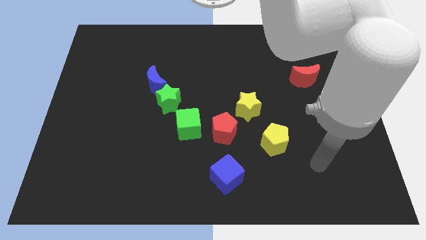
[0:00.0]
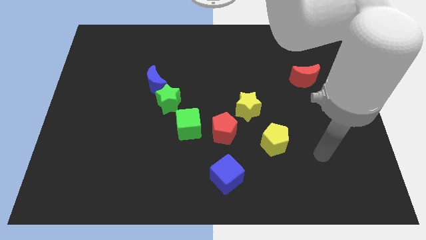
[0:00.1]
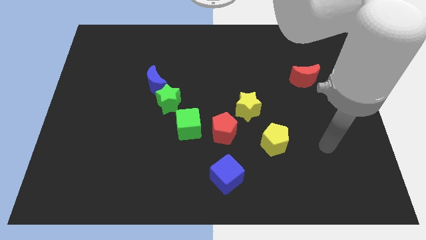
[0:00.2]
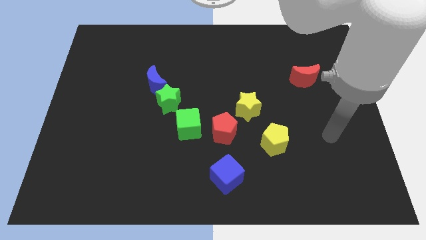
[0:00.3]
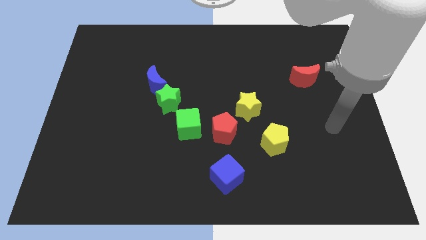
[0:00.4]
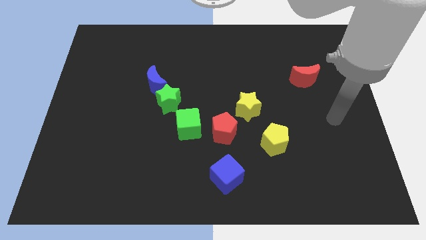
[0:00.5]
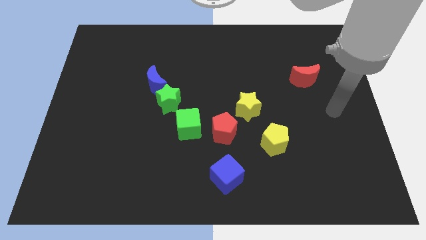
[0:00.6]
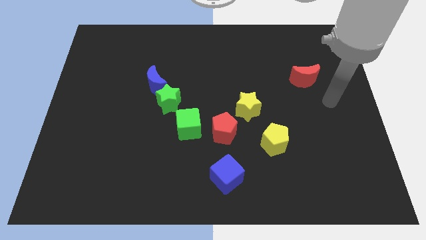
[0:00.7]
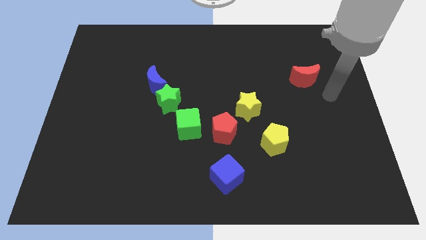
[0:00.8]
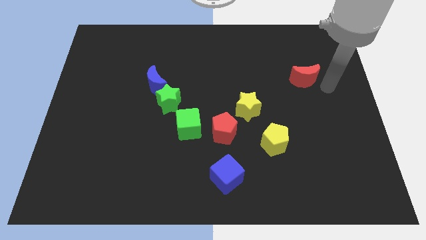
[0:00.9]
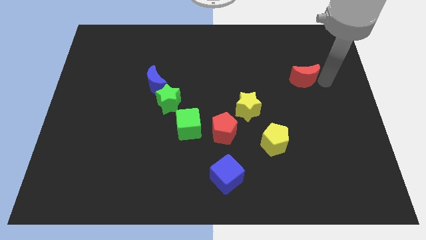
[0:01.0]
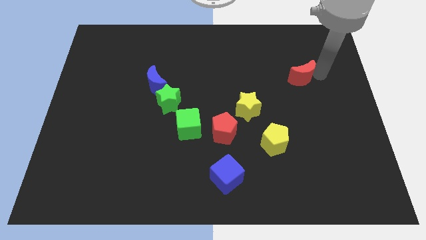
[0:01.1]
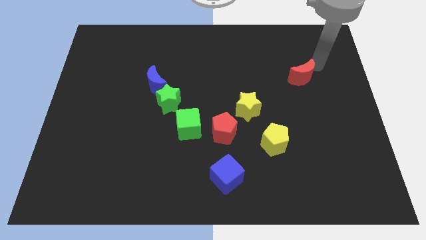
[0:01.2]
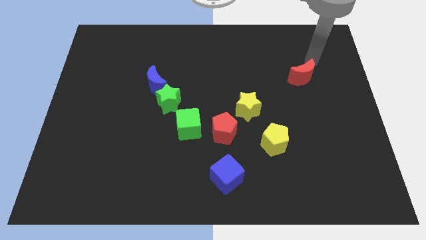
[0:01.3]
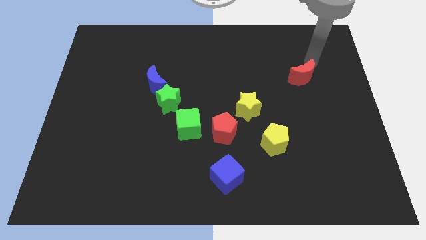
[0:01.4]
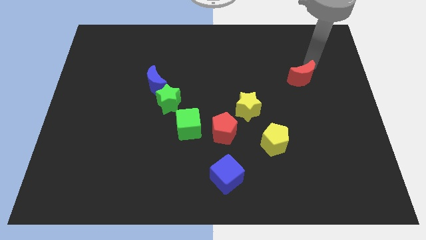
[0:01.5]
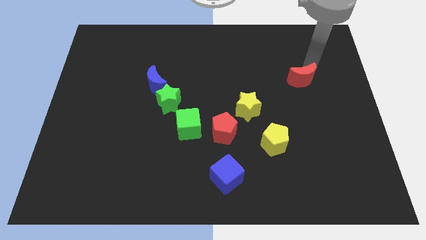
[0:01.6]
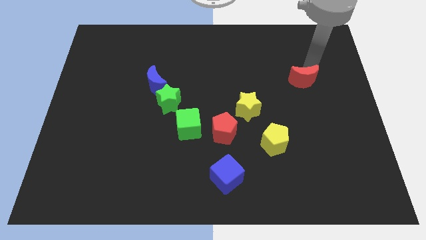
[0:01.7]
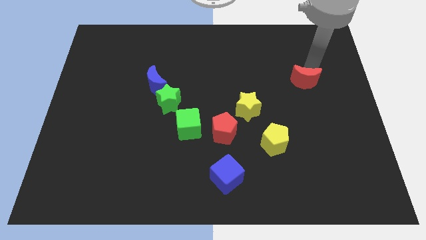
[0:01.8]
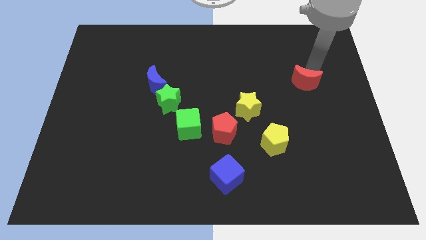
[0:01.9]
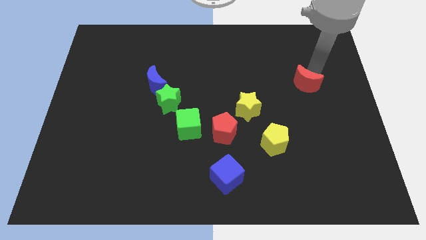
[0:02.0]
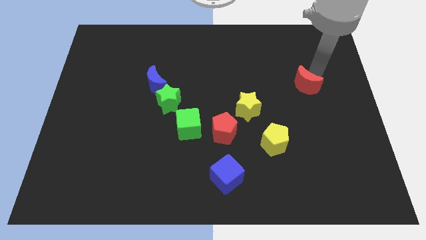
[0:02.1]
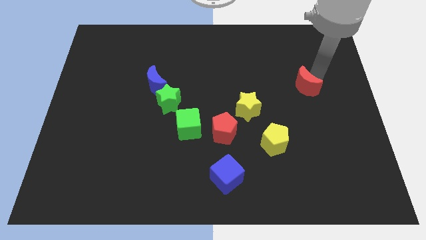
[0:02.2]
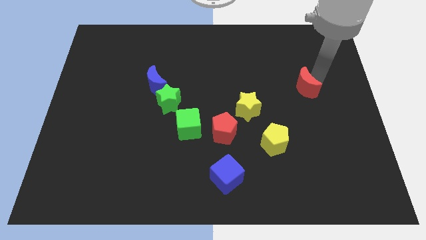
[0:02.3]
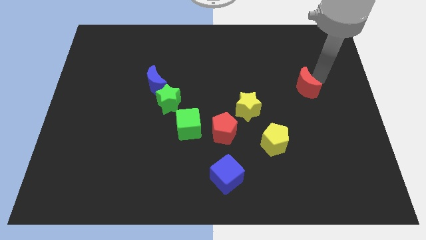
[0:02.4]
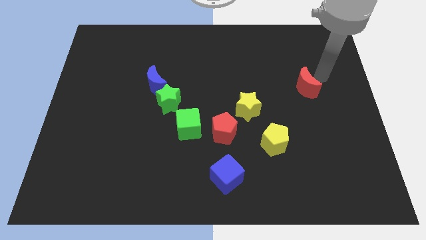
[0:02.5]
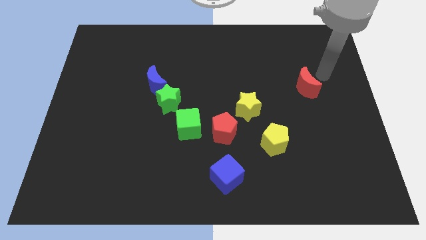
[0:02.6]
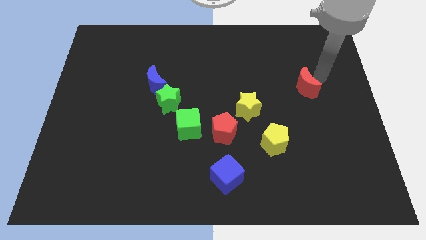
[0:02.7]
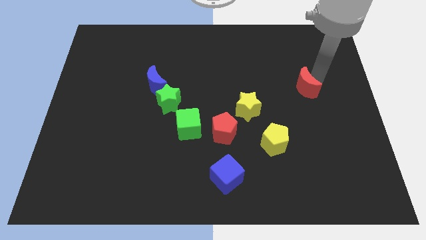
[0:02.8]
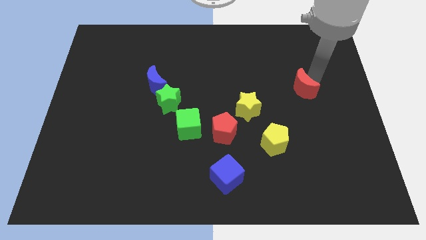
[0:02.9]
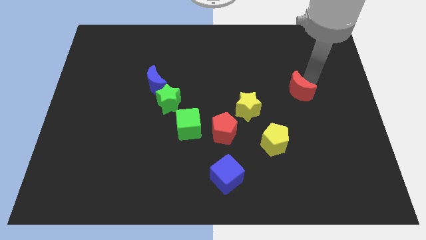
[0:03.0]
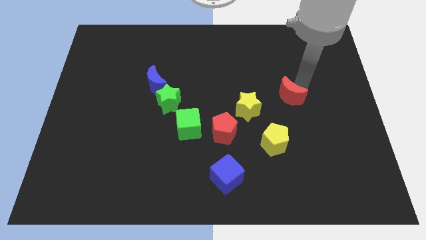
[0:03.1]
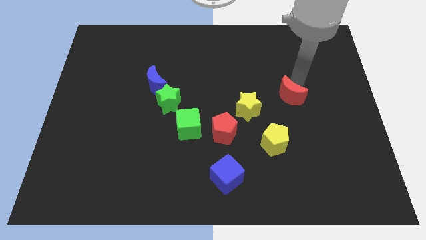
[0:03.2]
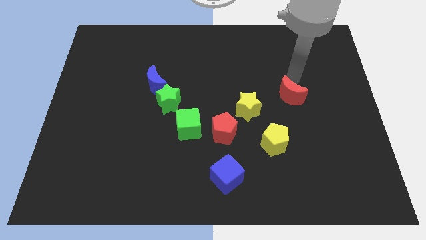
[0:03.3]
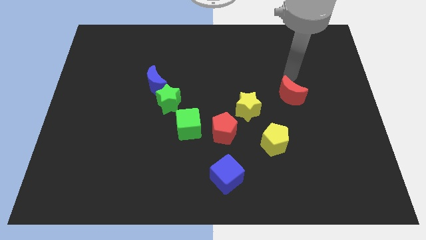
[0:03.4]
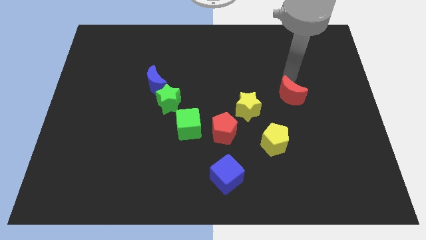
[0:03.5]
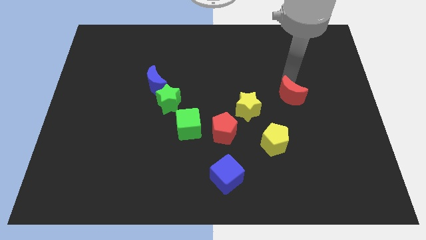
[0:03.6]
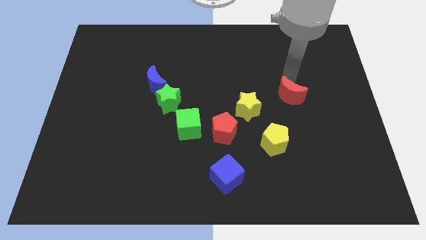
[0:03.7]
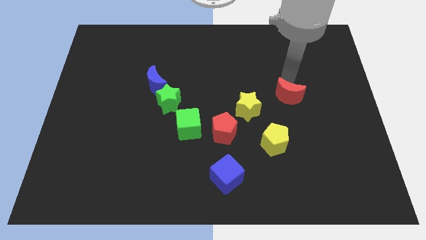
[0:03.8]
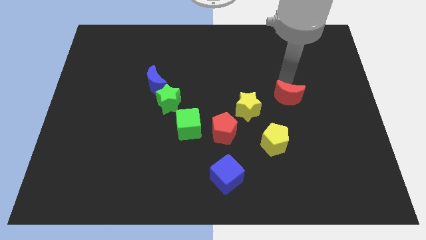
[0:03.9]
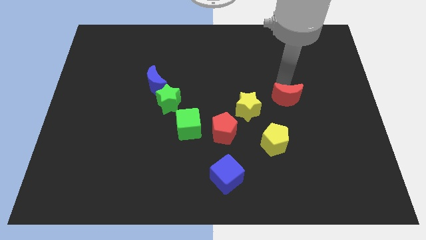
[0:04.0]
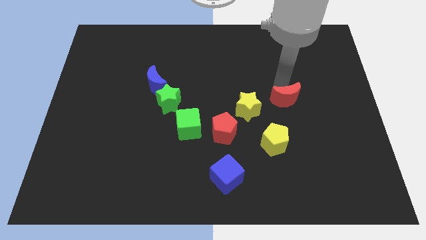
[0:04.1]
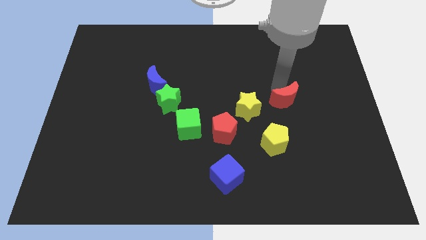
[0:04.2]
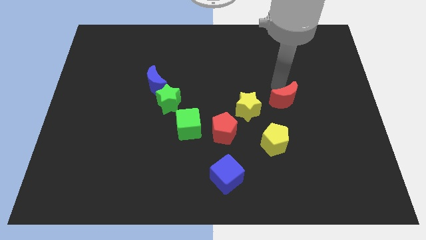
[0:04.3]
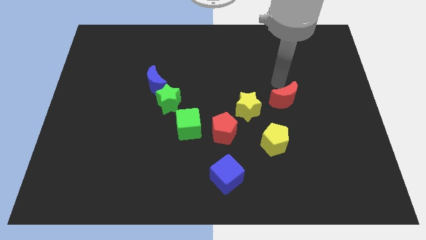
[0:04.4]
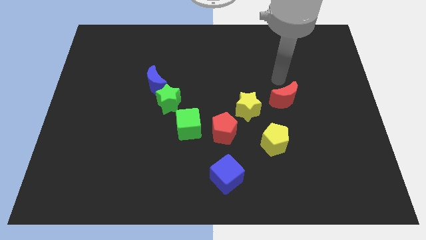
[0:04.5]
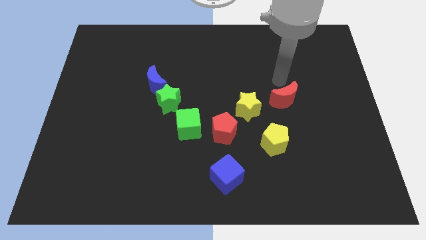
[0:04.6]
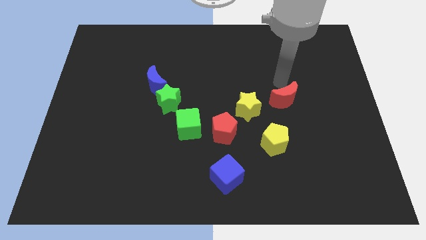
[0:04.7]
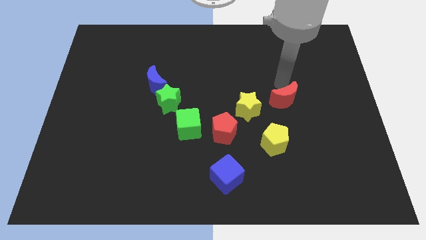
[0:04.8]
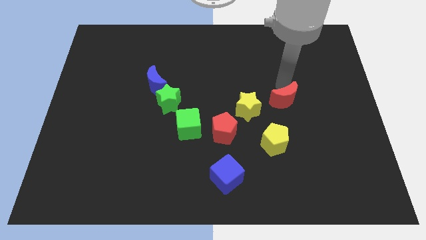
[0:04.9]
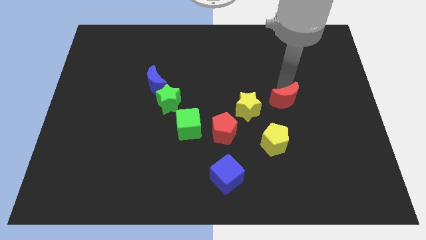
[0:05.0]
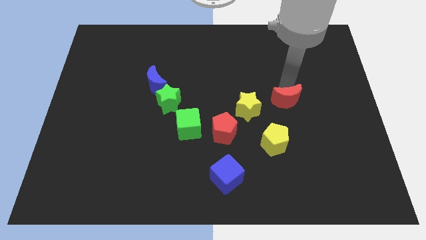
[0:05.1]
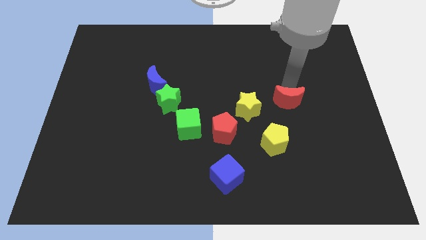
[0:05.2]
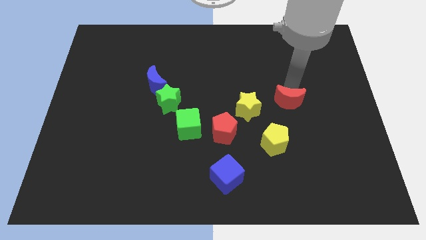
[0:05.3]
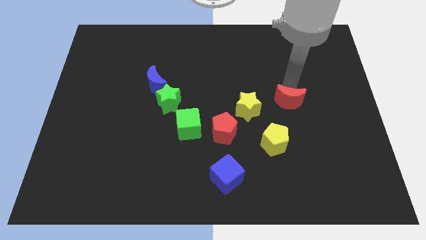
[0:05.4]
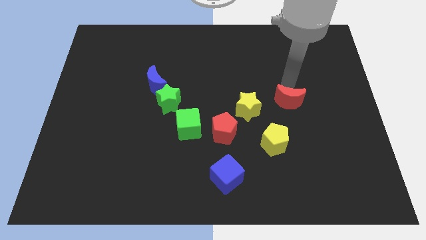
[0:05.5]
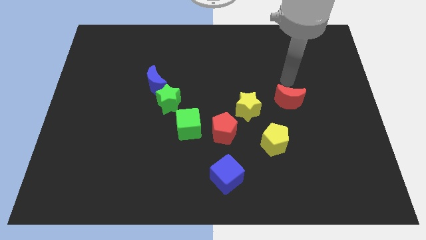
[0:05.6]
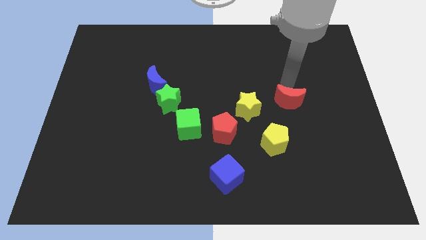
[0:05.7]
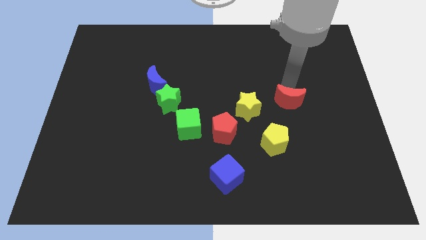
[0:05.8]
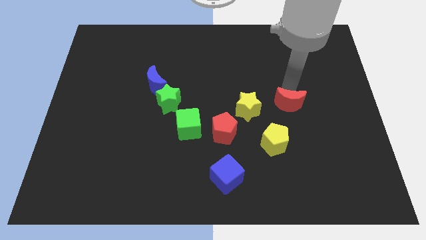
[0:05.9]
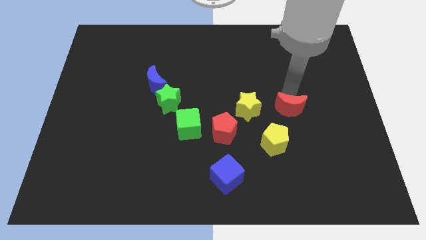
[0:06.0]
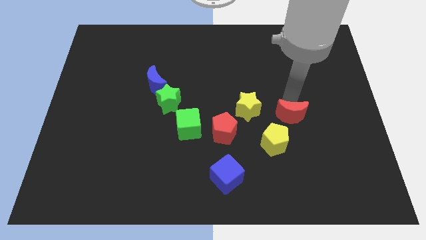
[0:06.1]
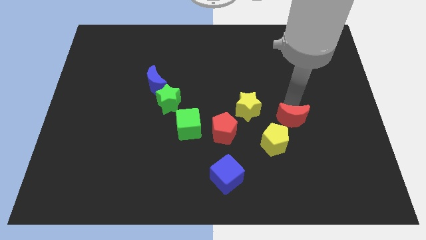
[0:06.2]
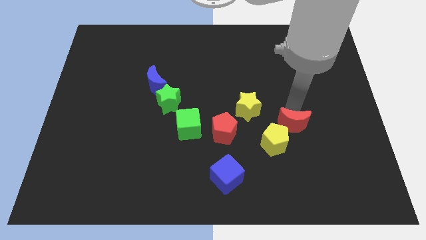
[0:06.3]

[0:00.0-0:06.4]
put the red moon just right of the red pentagon
